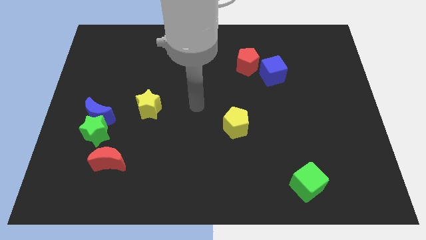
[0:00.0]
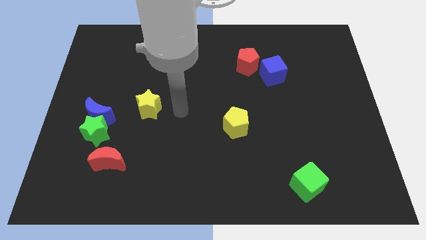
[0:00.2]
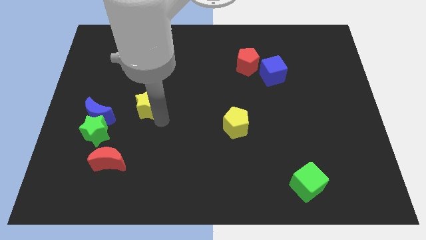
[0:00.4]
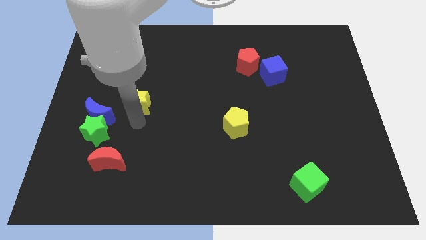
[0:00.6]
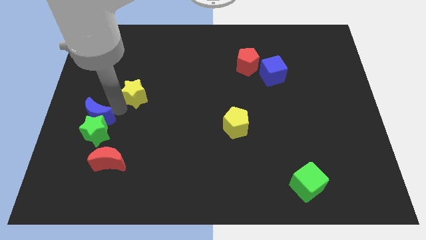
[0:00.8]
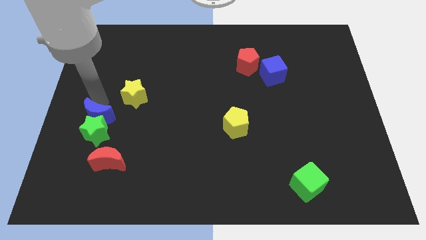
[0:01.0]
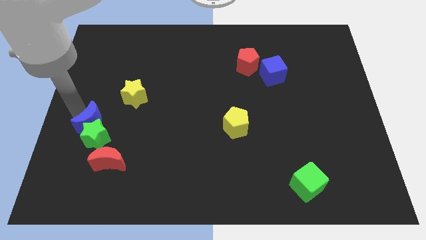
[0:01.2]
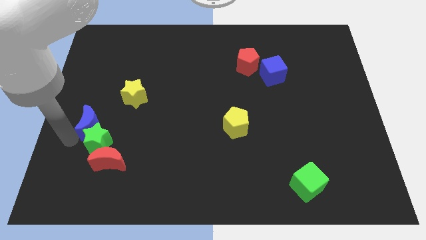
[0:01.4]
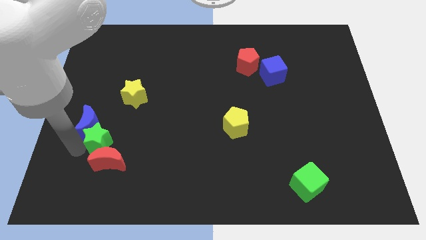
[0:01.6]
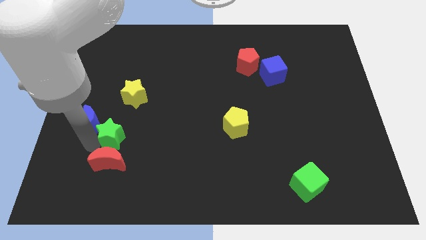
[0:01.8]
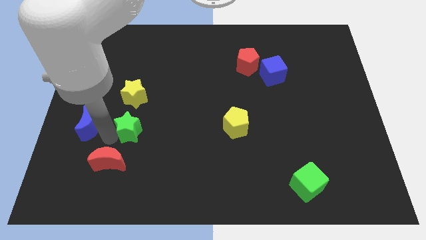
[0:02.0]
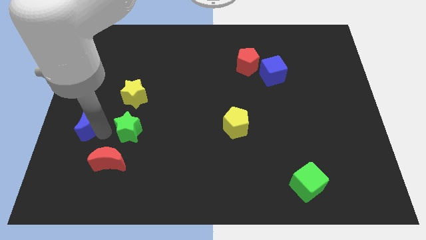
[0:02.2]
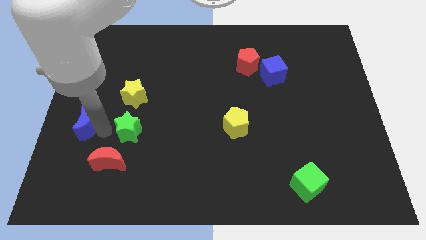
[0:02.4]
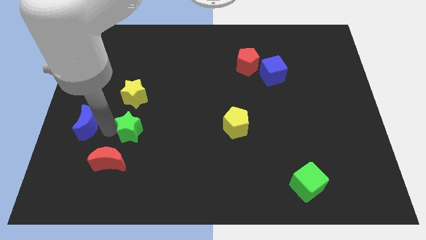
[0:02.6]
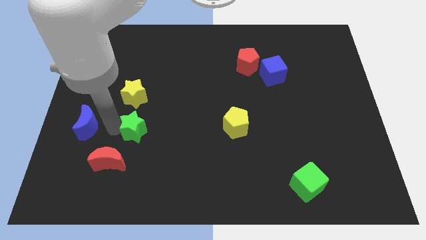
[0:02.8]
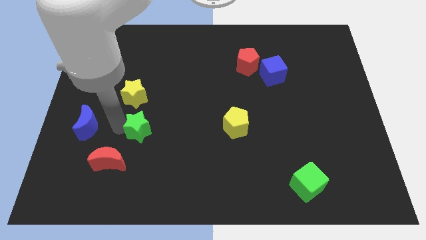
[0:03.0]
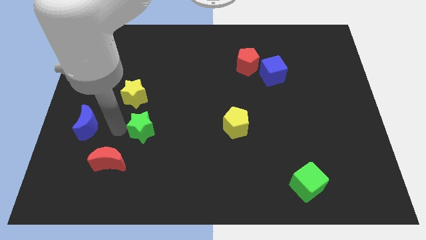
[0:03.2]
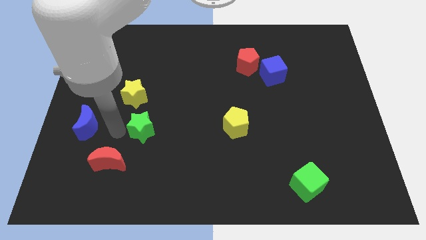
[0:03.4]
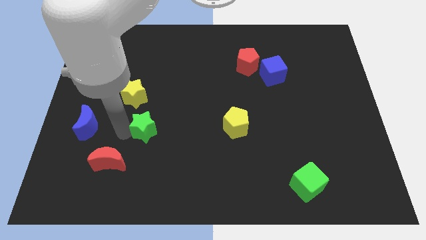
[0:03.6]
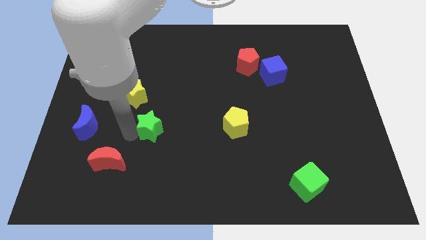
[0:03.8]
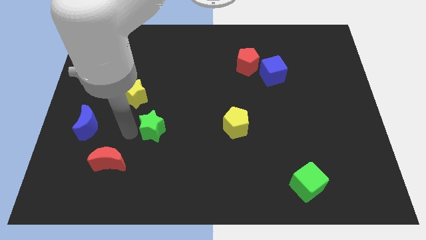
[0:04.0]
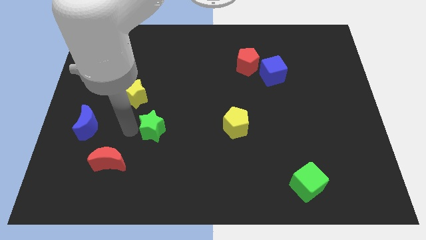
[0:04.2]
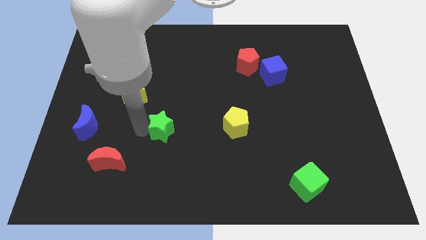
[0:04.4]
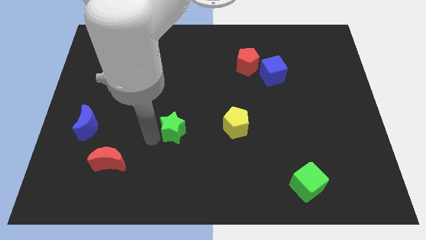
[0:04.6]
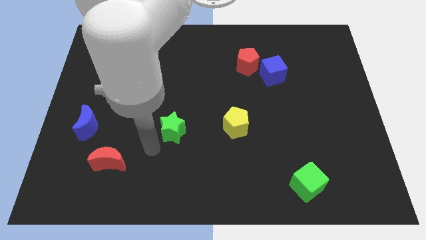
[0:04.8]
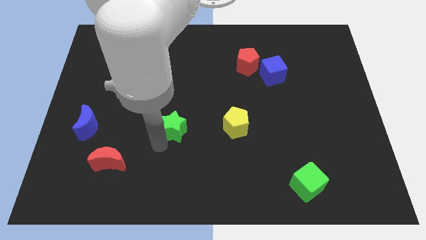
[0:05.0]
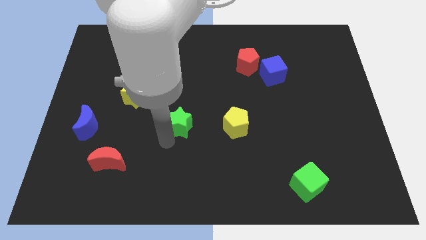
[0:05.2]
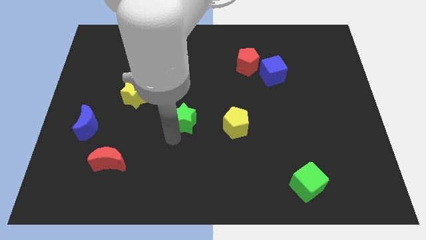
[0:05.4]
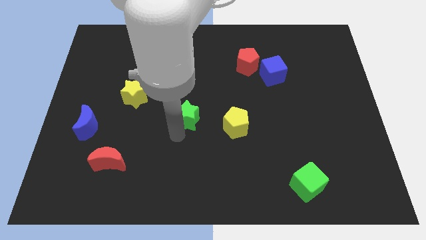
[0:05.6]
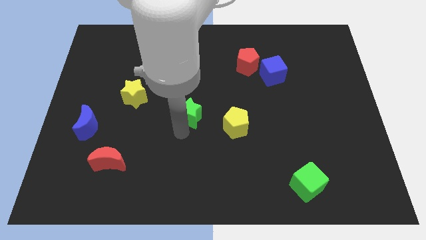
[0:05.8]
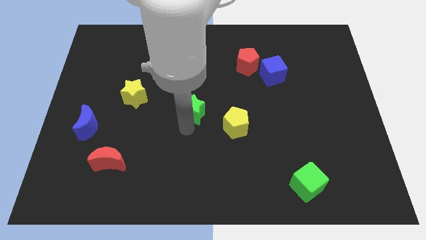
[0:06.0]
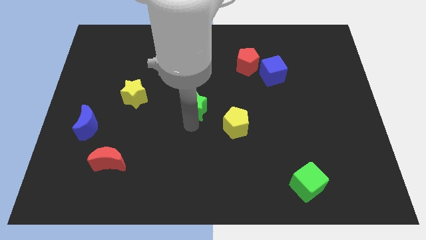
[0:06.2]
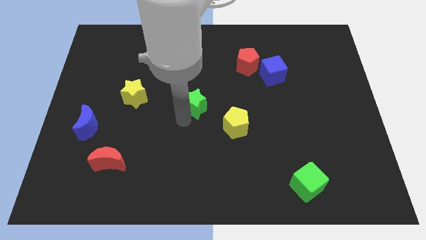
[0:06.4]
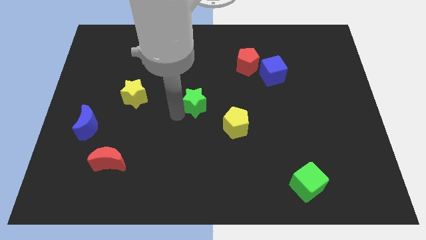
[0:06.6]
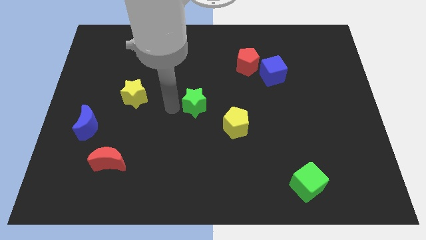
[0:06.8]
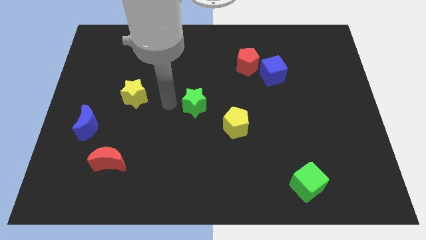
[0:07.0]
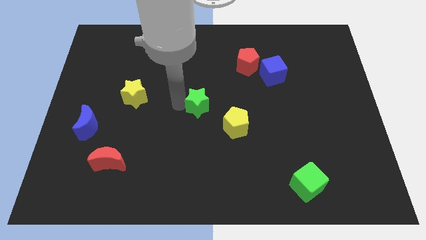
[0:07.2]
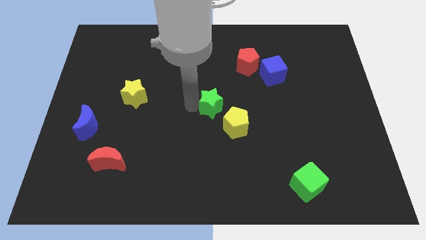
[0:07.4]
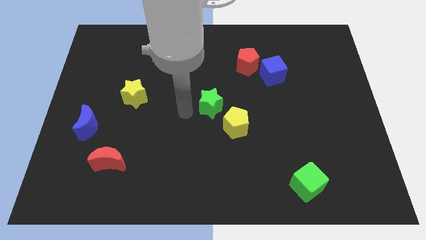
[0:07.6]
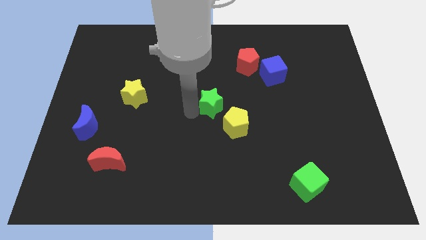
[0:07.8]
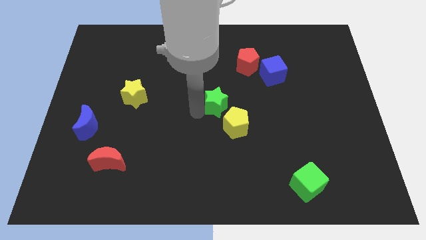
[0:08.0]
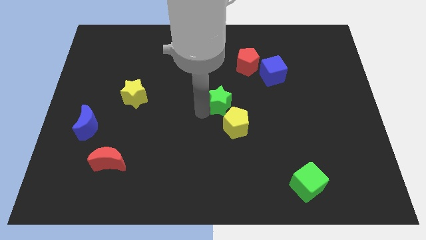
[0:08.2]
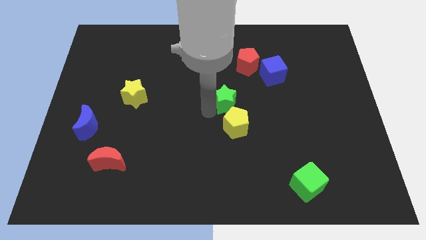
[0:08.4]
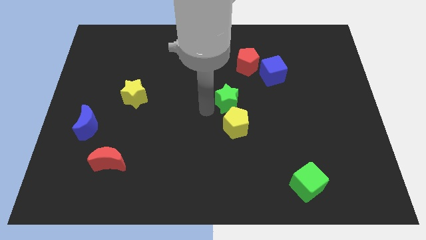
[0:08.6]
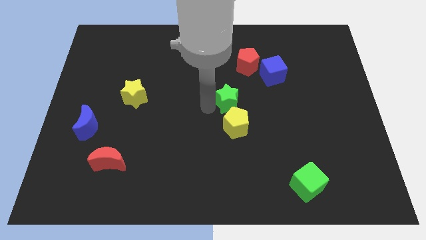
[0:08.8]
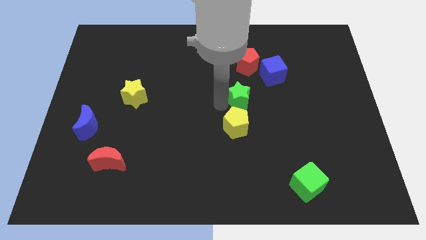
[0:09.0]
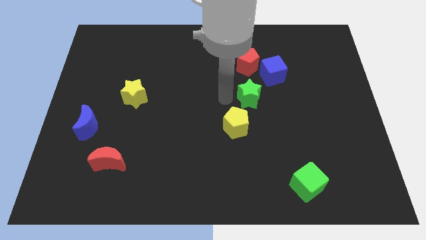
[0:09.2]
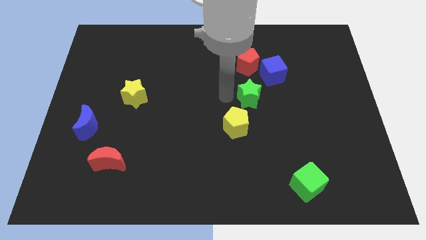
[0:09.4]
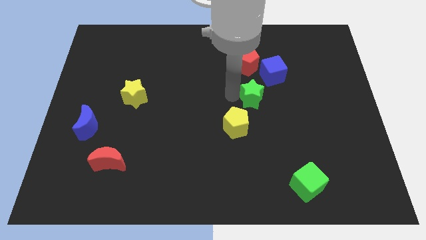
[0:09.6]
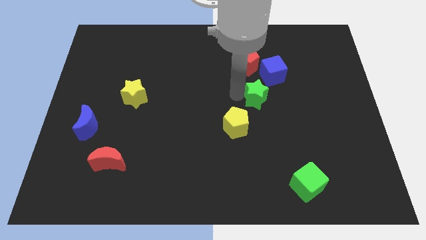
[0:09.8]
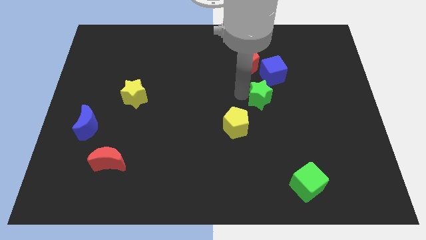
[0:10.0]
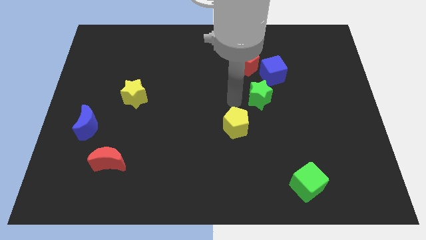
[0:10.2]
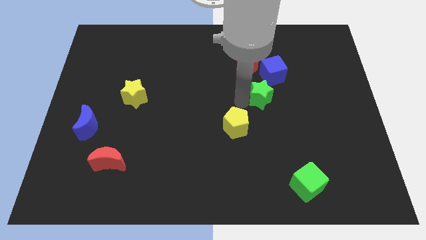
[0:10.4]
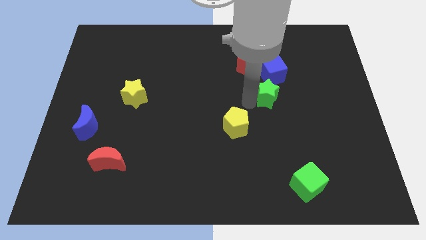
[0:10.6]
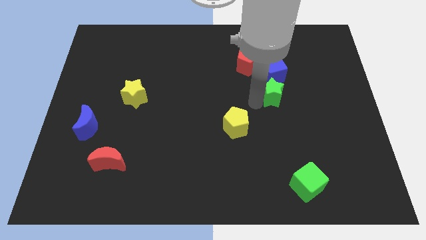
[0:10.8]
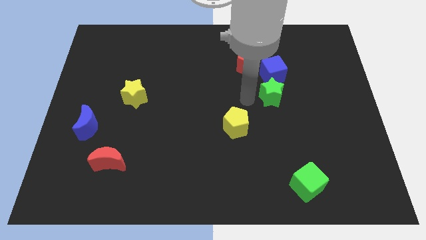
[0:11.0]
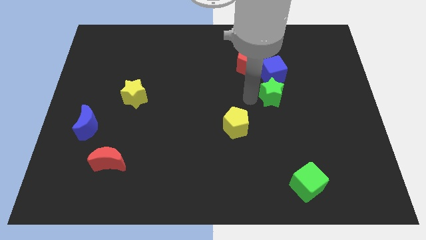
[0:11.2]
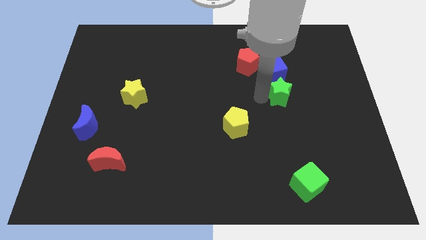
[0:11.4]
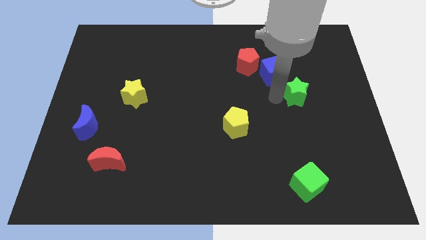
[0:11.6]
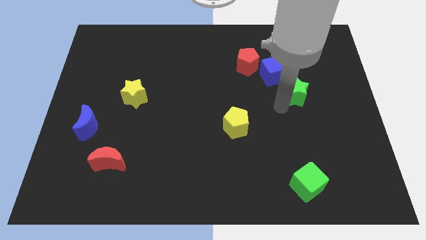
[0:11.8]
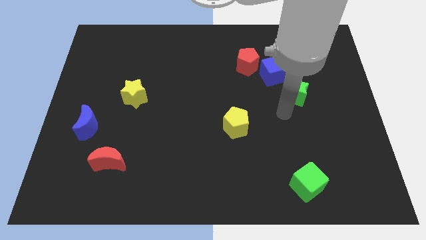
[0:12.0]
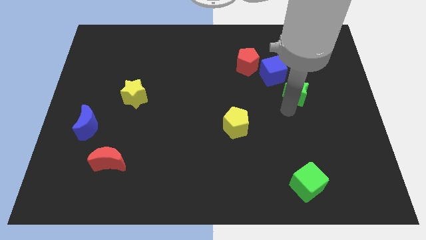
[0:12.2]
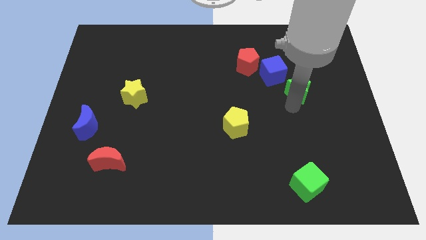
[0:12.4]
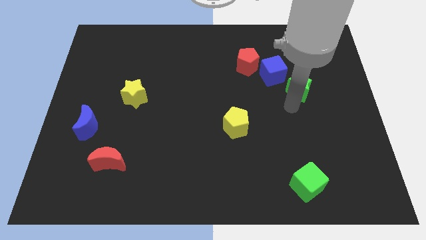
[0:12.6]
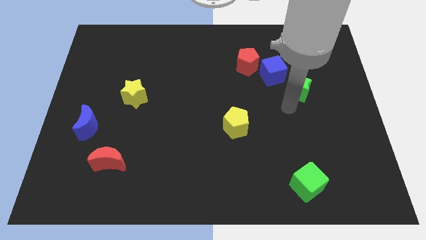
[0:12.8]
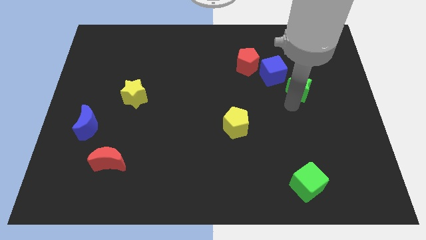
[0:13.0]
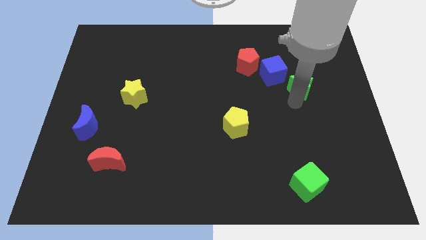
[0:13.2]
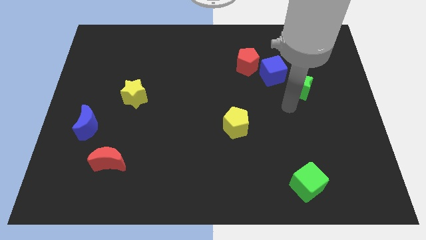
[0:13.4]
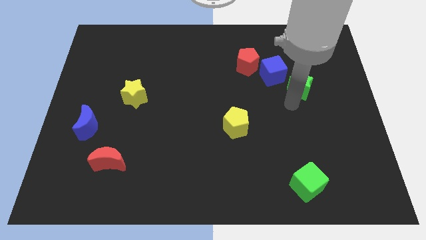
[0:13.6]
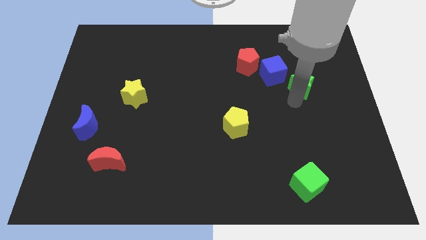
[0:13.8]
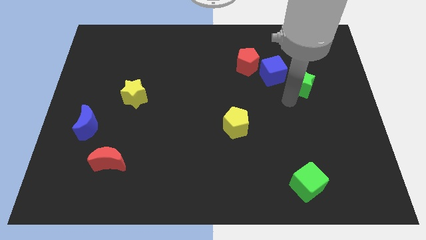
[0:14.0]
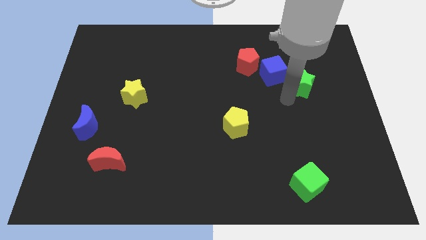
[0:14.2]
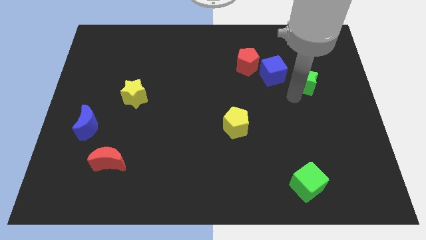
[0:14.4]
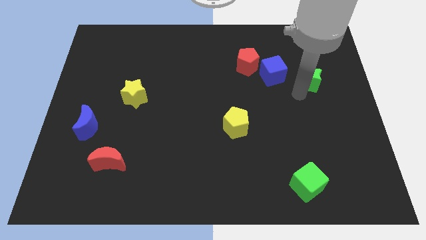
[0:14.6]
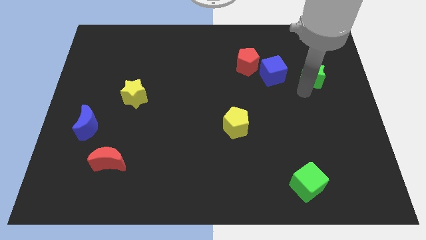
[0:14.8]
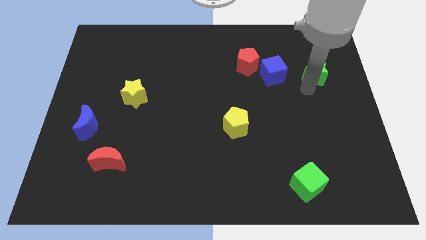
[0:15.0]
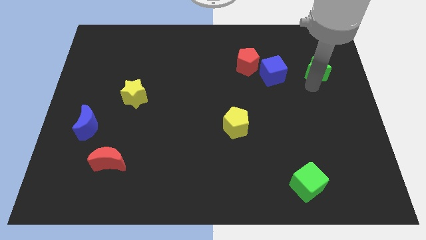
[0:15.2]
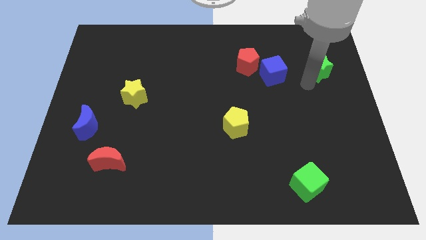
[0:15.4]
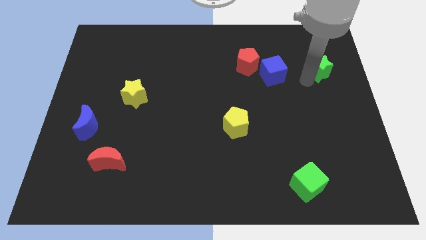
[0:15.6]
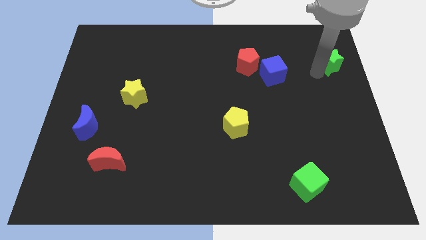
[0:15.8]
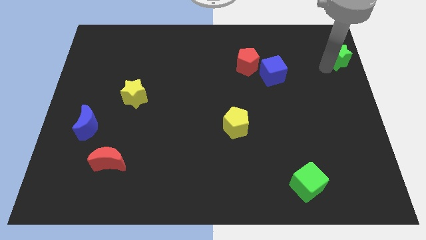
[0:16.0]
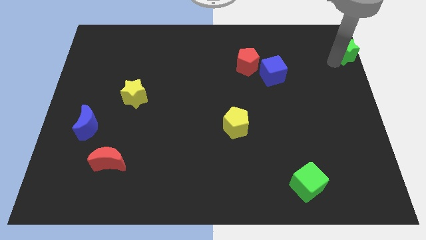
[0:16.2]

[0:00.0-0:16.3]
slide the green star to the upper right corner
